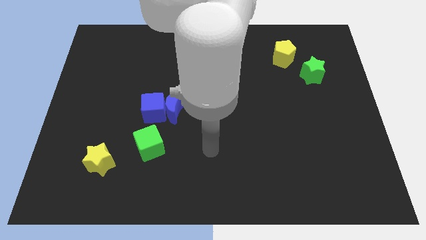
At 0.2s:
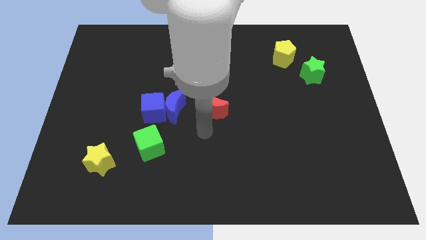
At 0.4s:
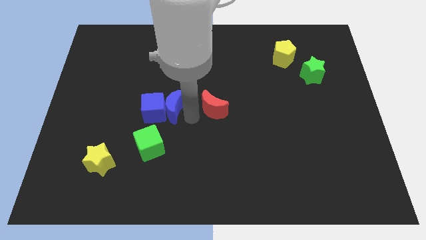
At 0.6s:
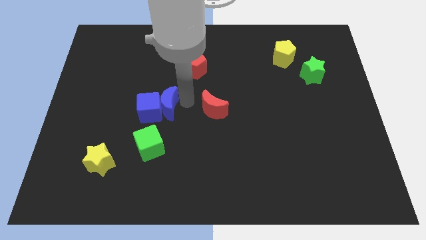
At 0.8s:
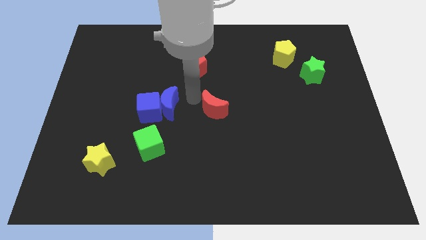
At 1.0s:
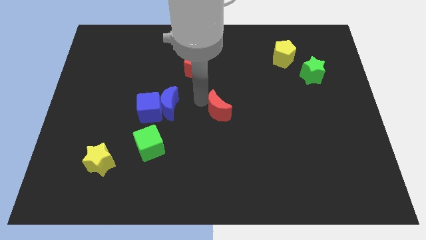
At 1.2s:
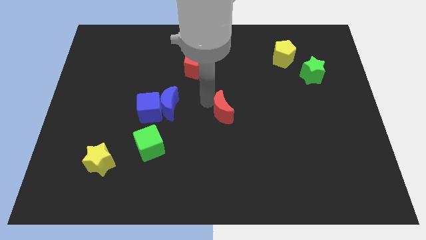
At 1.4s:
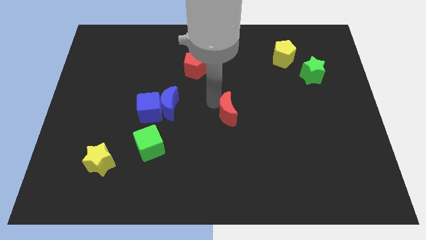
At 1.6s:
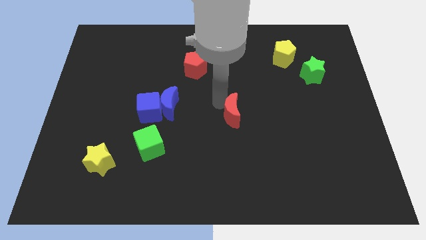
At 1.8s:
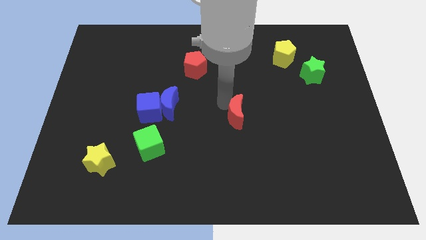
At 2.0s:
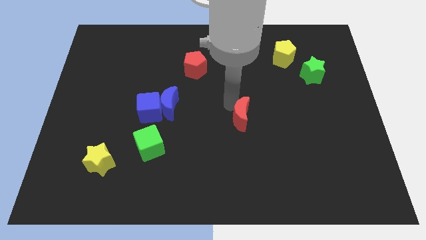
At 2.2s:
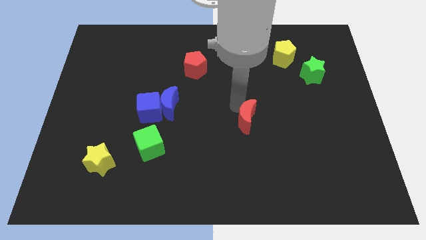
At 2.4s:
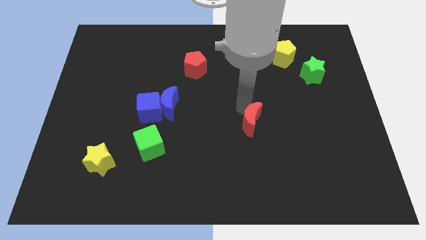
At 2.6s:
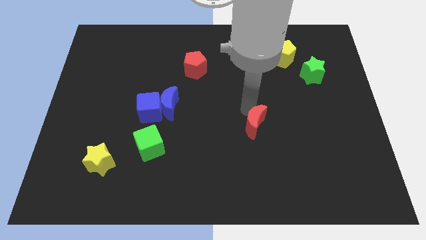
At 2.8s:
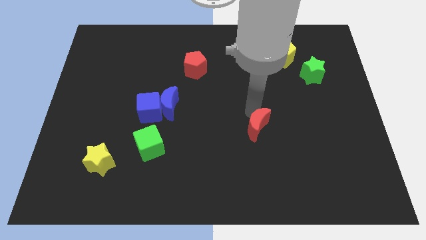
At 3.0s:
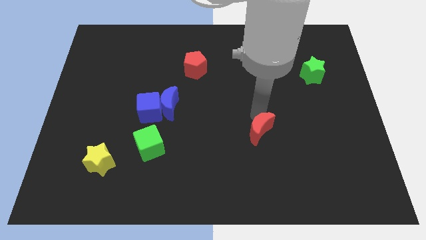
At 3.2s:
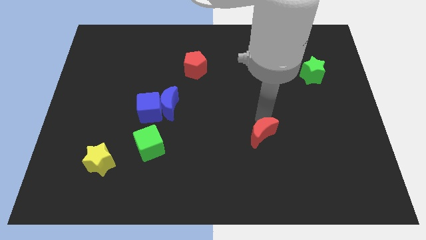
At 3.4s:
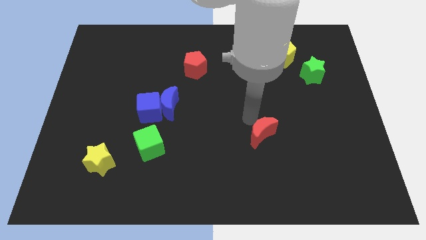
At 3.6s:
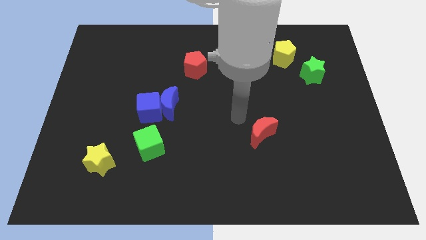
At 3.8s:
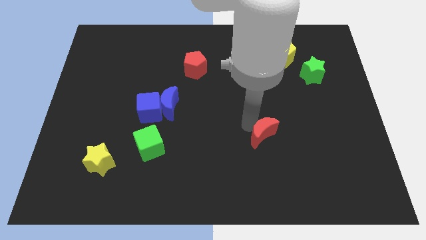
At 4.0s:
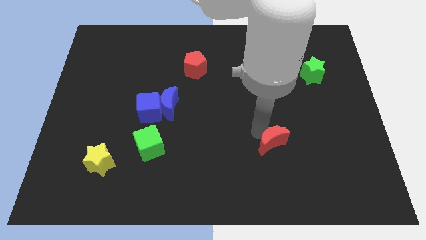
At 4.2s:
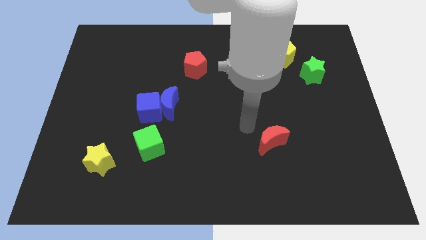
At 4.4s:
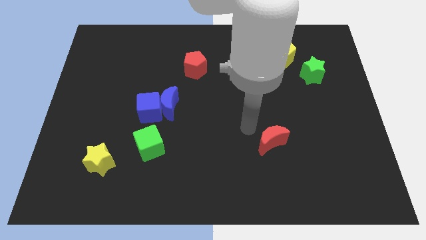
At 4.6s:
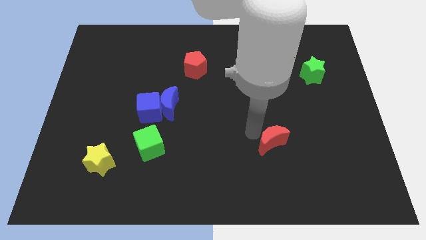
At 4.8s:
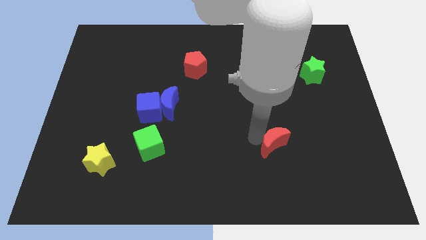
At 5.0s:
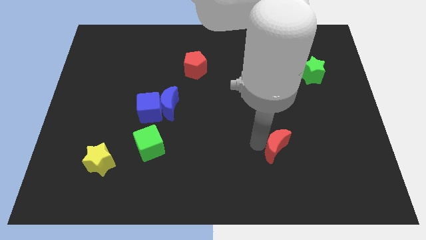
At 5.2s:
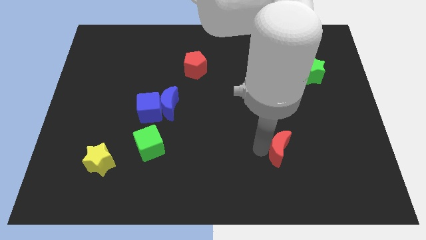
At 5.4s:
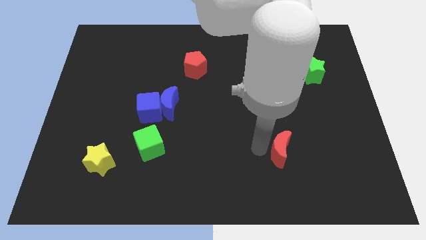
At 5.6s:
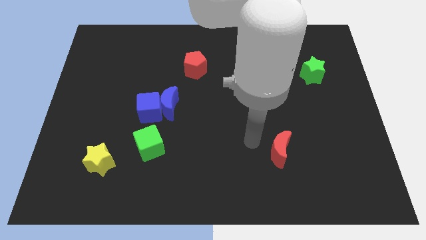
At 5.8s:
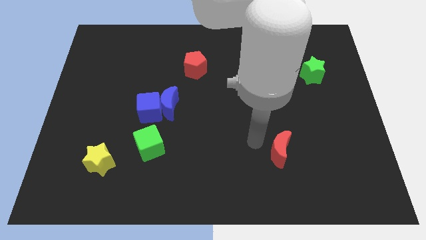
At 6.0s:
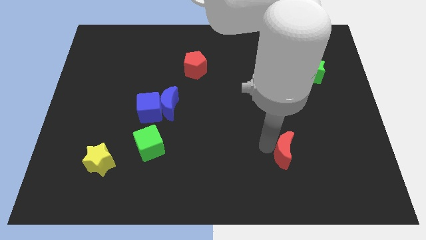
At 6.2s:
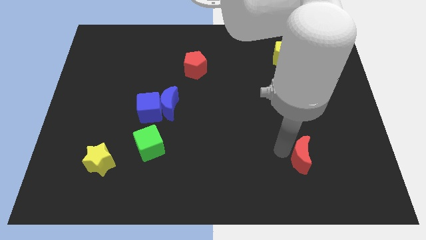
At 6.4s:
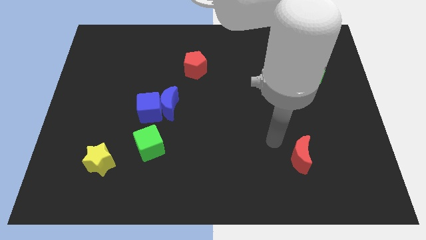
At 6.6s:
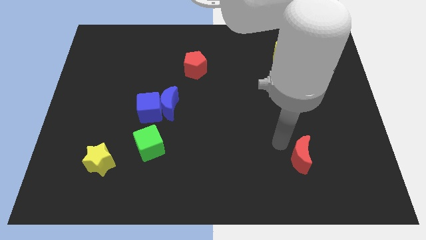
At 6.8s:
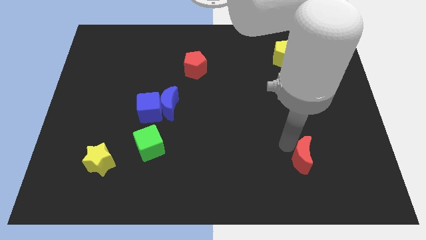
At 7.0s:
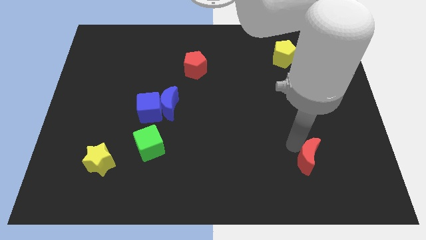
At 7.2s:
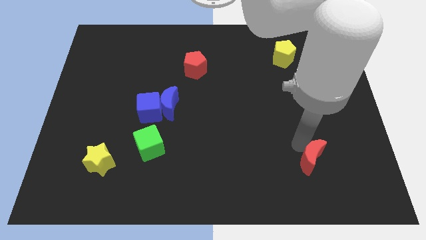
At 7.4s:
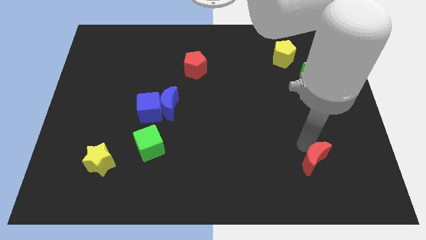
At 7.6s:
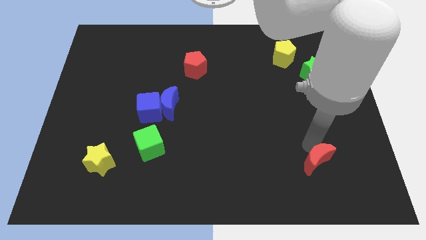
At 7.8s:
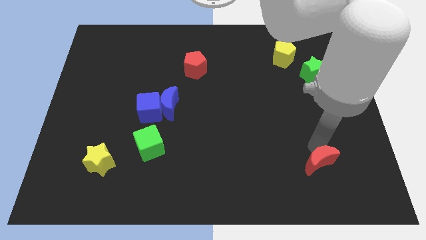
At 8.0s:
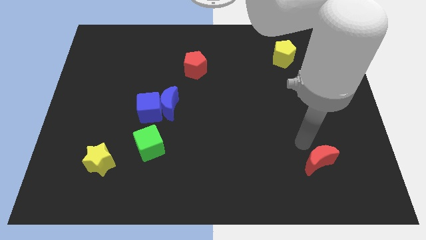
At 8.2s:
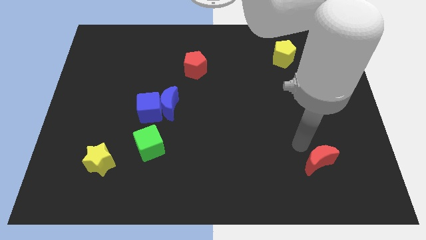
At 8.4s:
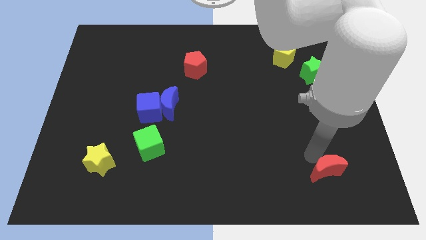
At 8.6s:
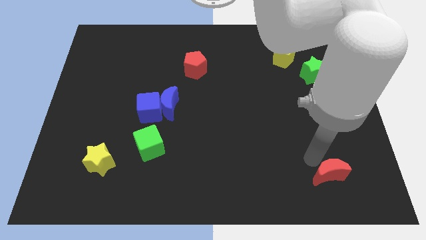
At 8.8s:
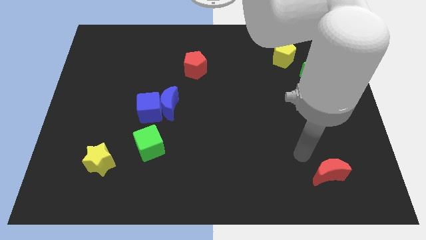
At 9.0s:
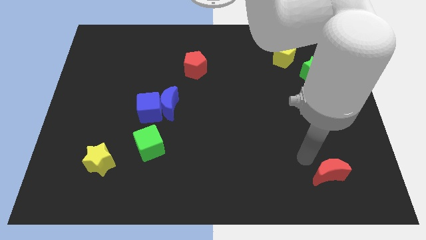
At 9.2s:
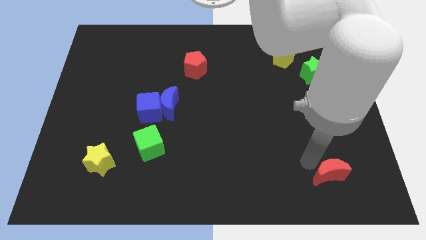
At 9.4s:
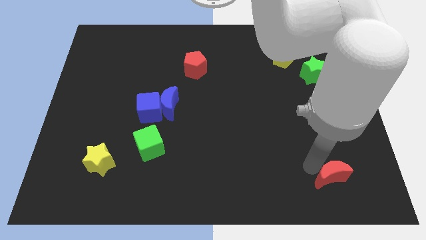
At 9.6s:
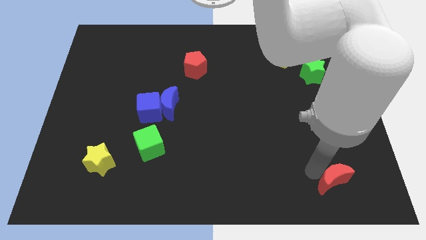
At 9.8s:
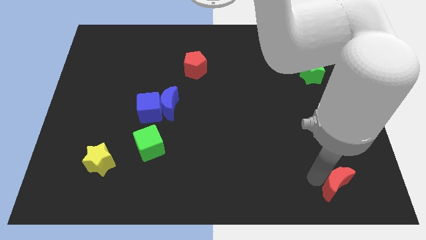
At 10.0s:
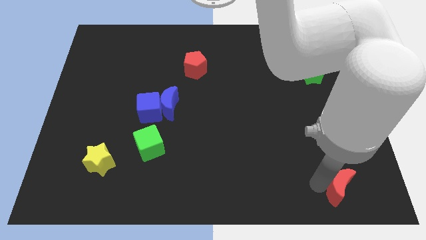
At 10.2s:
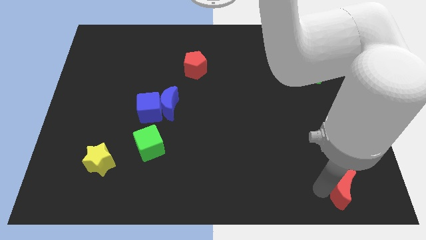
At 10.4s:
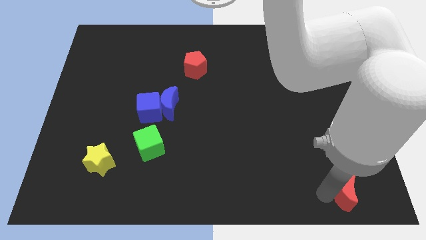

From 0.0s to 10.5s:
put the red moon to the bottom right corner

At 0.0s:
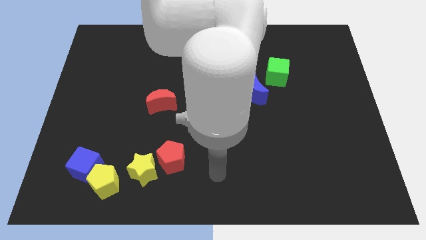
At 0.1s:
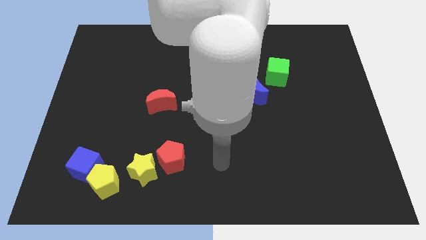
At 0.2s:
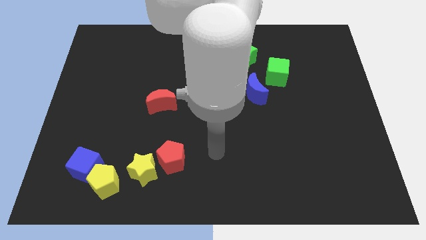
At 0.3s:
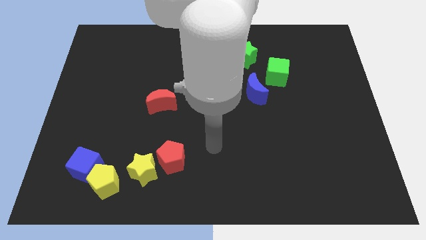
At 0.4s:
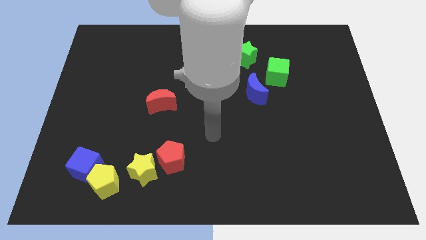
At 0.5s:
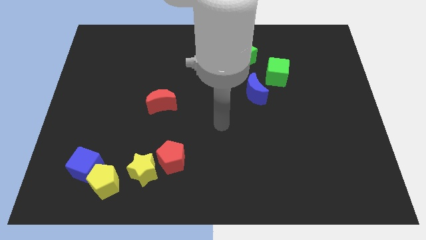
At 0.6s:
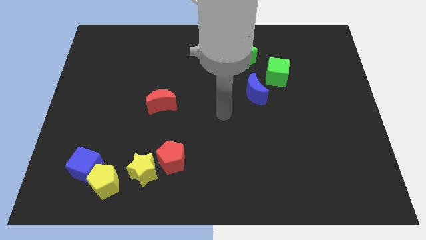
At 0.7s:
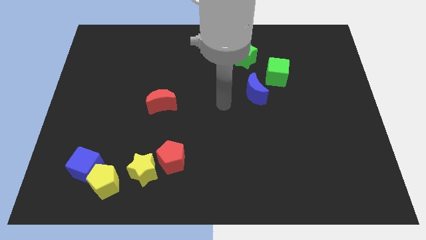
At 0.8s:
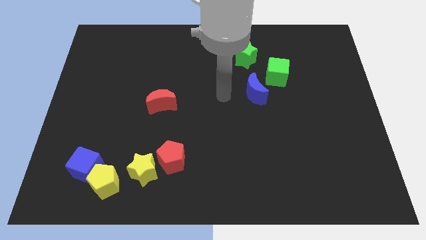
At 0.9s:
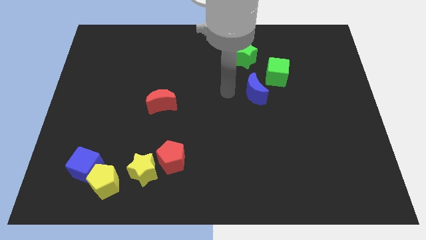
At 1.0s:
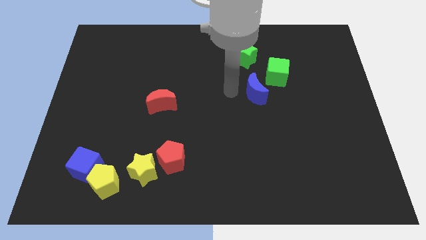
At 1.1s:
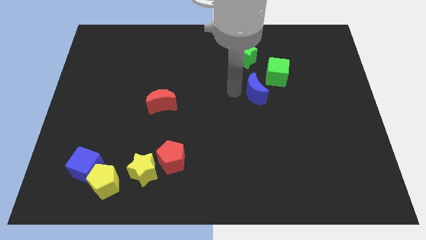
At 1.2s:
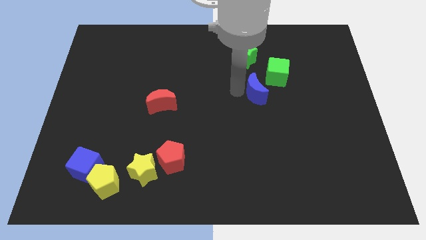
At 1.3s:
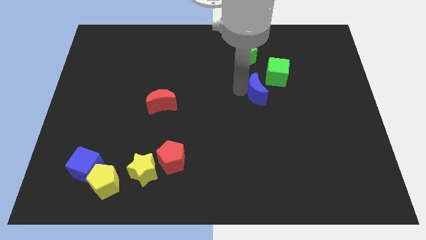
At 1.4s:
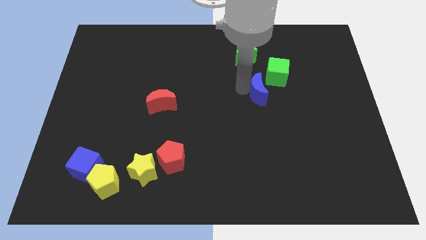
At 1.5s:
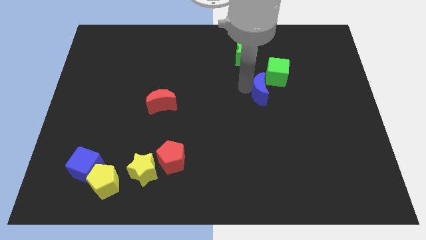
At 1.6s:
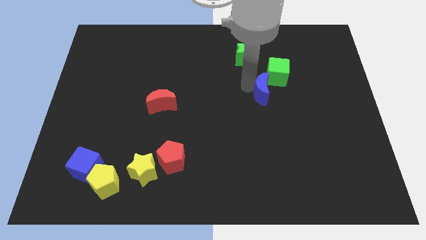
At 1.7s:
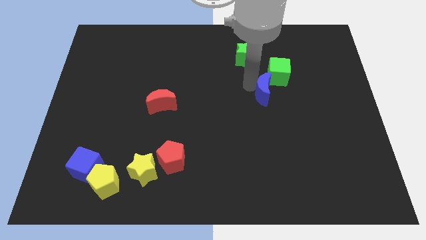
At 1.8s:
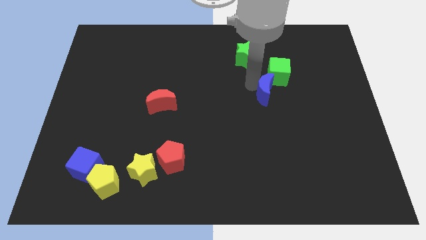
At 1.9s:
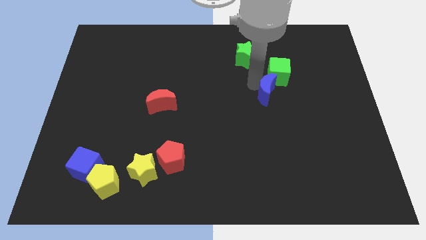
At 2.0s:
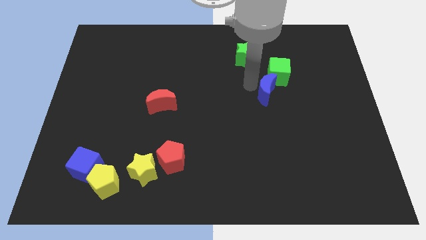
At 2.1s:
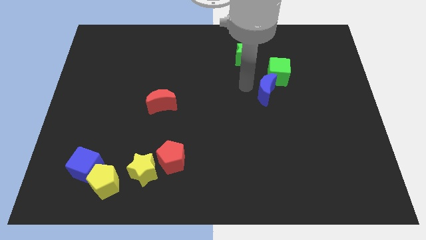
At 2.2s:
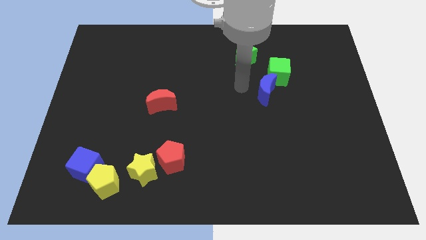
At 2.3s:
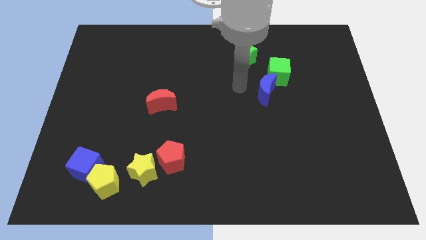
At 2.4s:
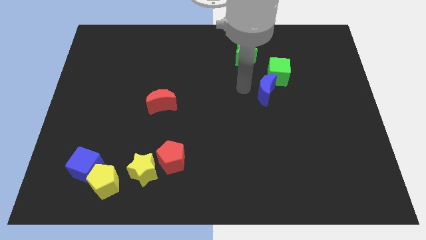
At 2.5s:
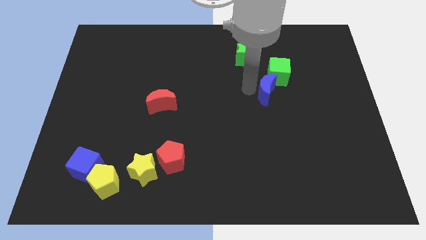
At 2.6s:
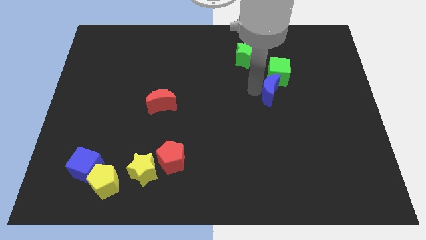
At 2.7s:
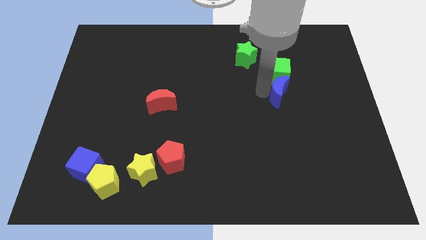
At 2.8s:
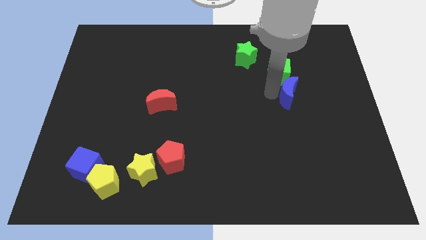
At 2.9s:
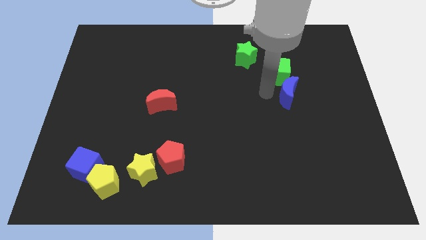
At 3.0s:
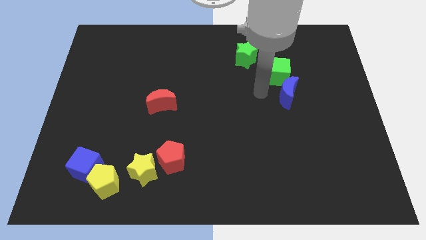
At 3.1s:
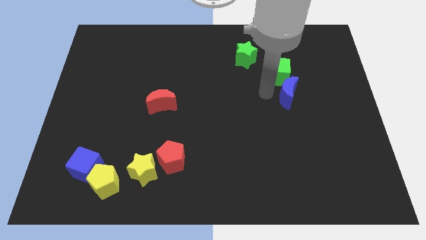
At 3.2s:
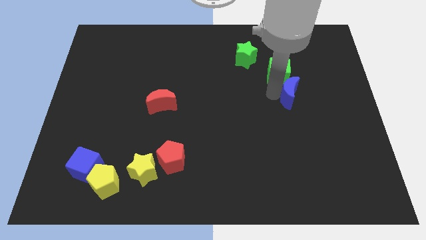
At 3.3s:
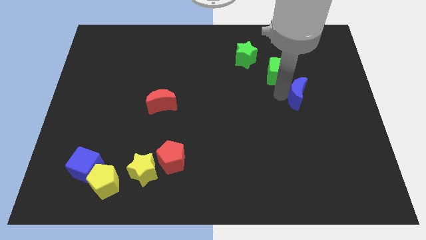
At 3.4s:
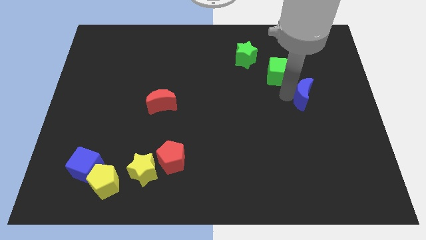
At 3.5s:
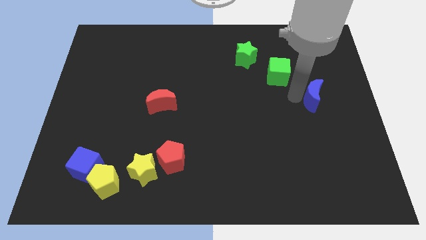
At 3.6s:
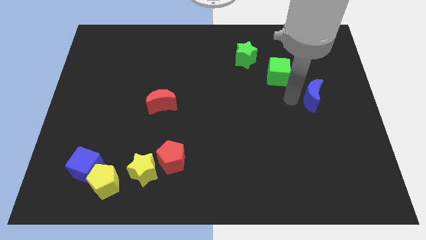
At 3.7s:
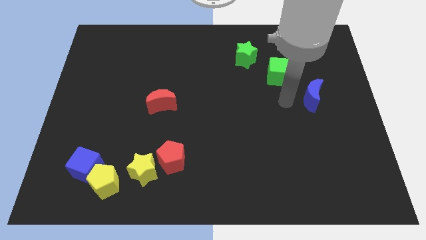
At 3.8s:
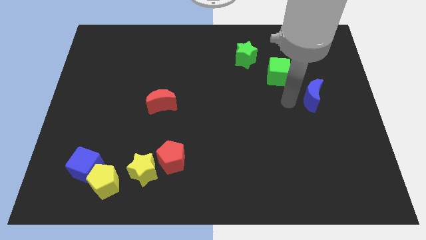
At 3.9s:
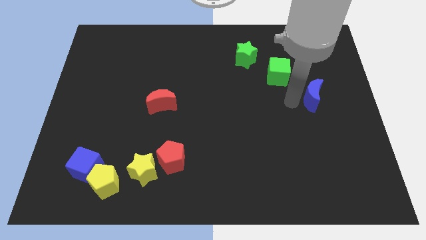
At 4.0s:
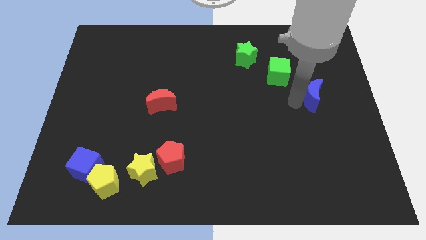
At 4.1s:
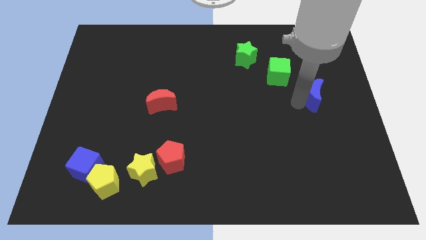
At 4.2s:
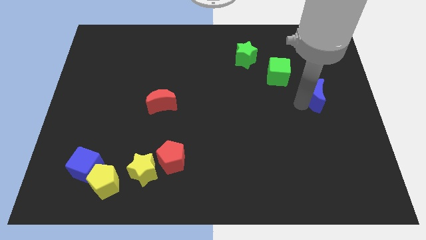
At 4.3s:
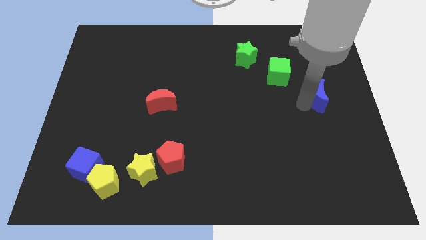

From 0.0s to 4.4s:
move the blue moon to the right side
